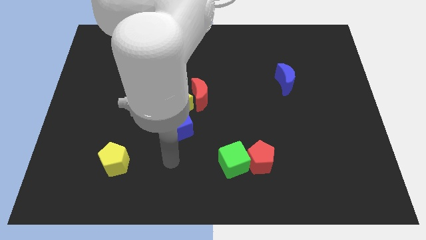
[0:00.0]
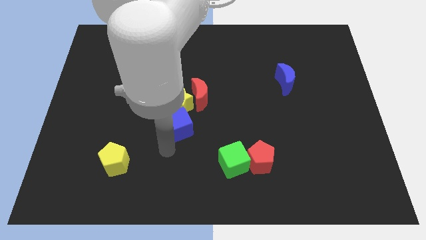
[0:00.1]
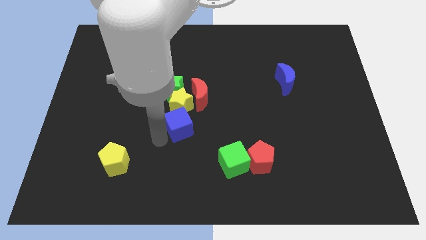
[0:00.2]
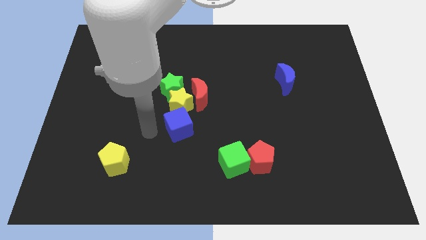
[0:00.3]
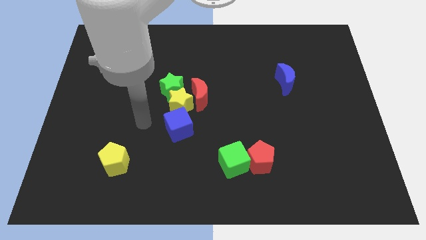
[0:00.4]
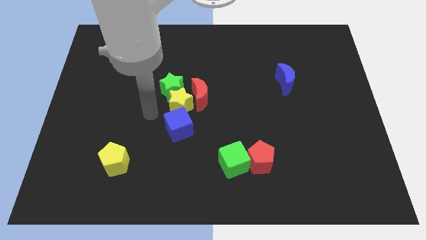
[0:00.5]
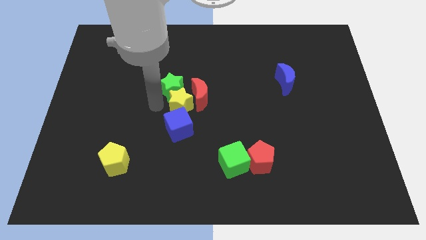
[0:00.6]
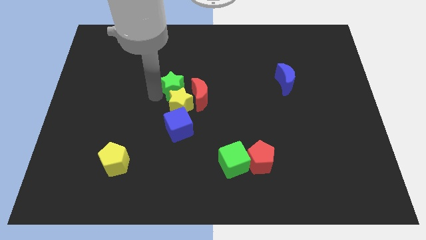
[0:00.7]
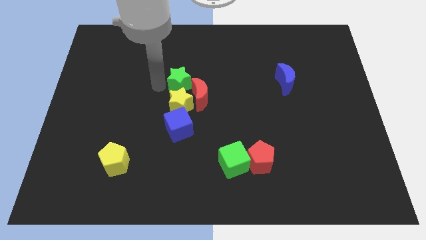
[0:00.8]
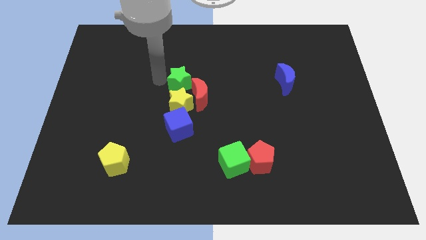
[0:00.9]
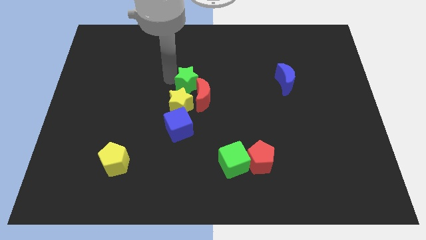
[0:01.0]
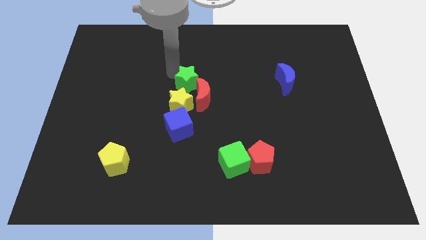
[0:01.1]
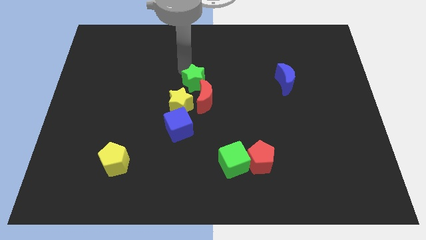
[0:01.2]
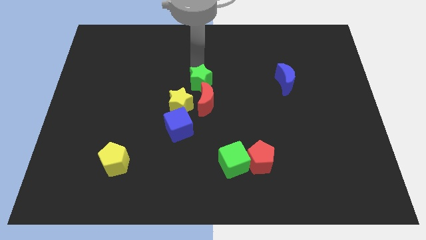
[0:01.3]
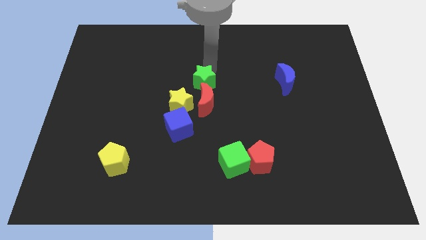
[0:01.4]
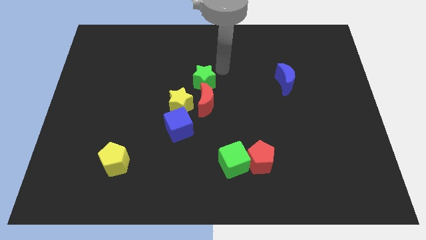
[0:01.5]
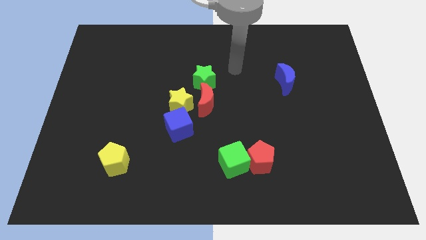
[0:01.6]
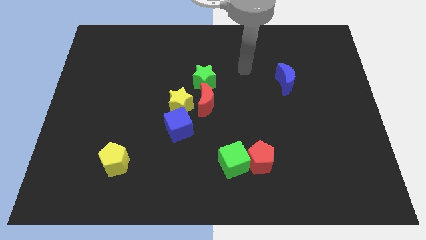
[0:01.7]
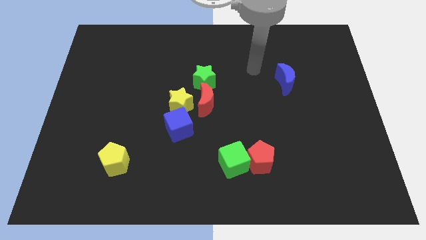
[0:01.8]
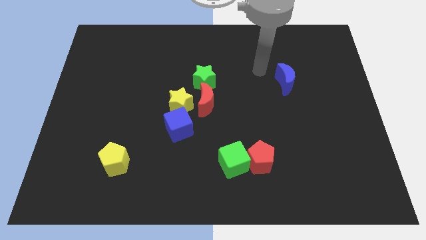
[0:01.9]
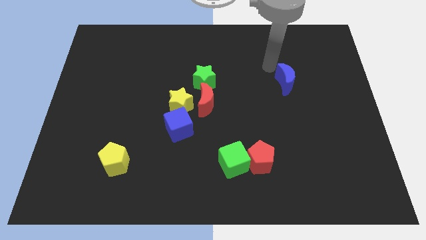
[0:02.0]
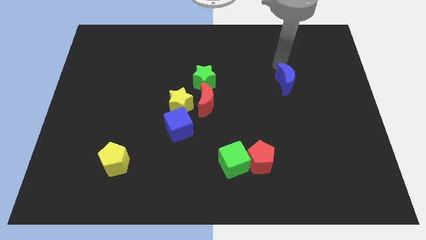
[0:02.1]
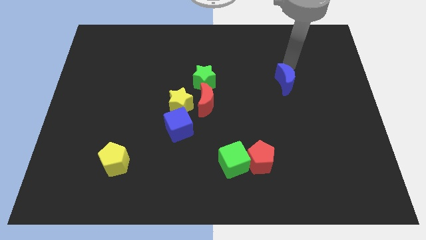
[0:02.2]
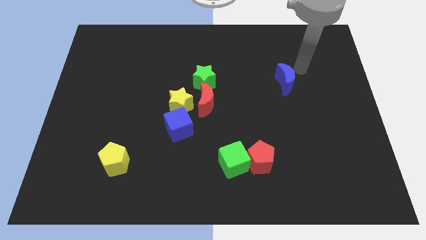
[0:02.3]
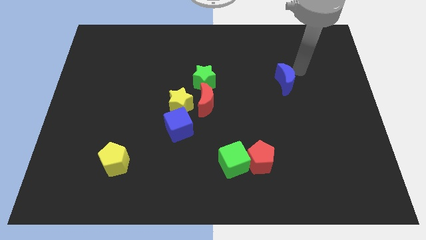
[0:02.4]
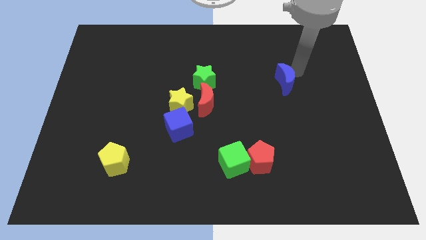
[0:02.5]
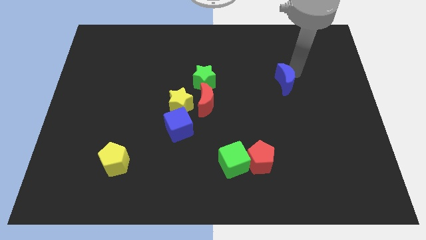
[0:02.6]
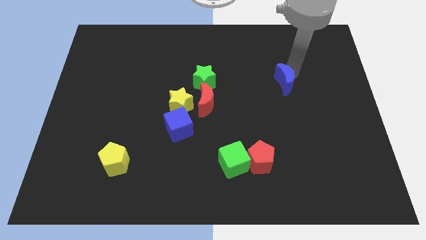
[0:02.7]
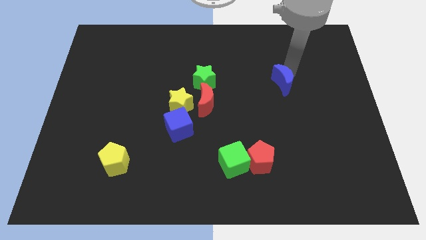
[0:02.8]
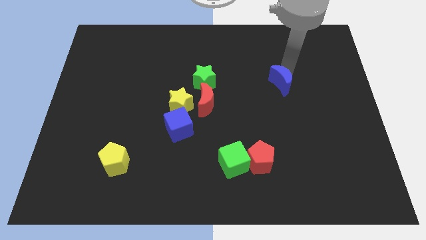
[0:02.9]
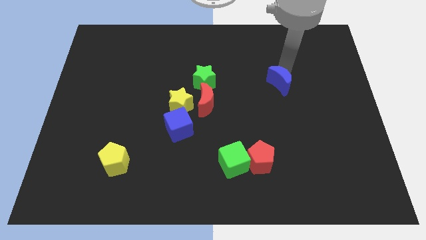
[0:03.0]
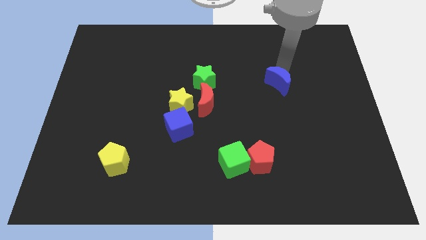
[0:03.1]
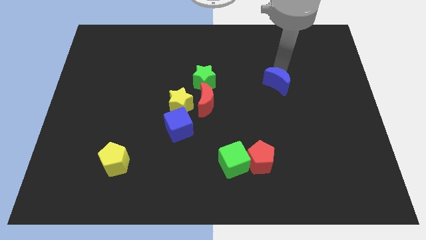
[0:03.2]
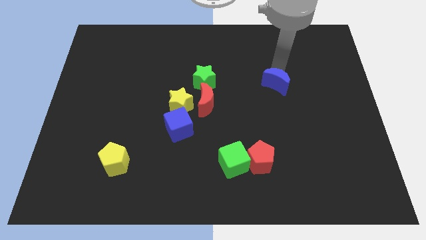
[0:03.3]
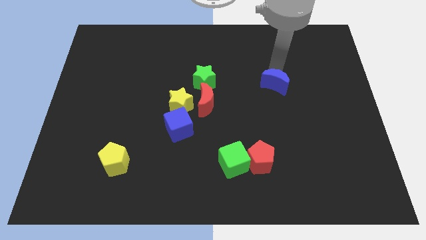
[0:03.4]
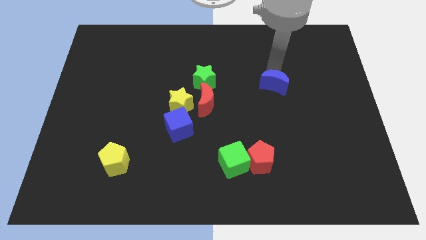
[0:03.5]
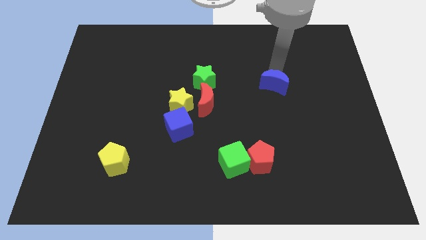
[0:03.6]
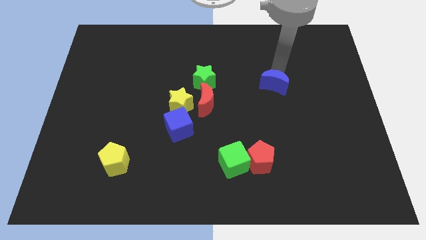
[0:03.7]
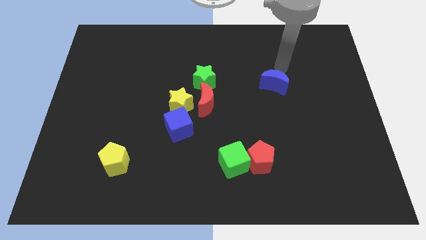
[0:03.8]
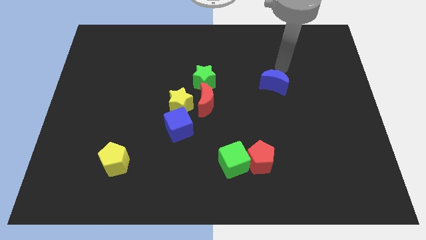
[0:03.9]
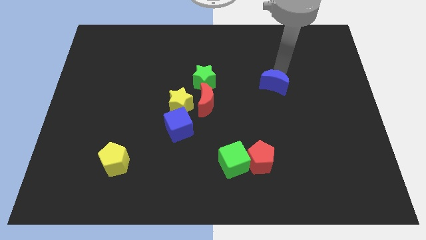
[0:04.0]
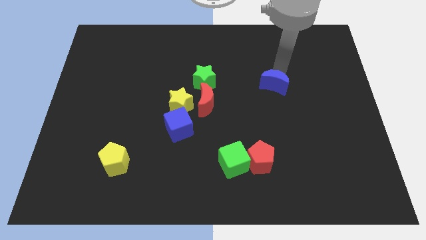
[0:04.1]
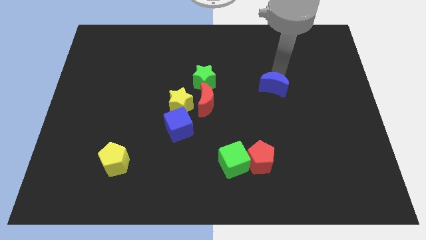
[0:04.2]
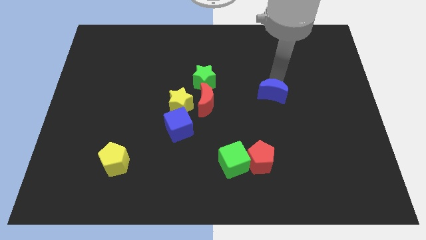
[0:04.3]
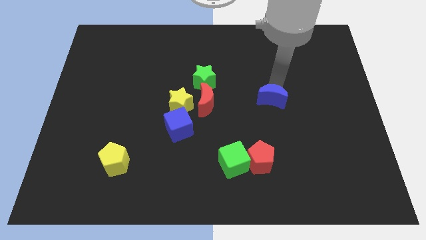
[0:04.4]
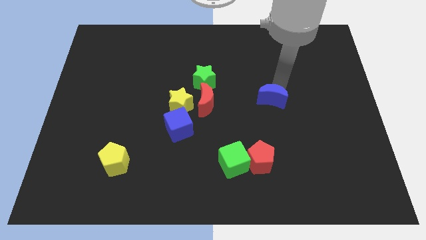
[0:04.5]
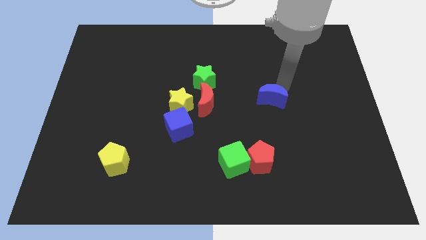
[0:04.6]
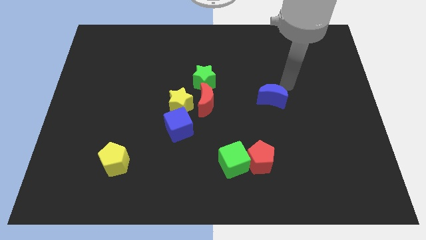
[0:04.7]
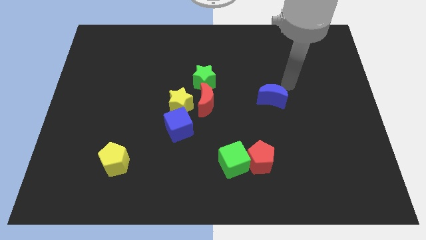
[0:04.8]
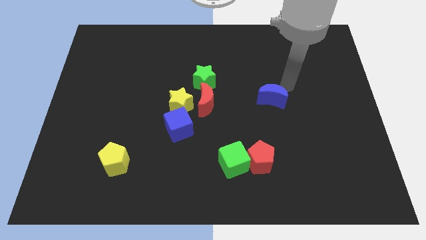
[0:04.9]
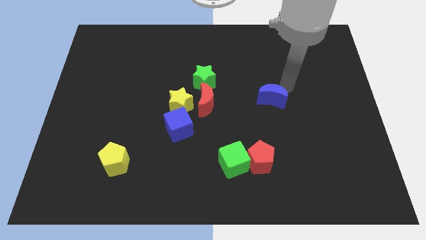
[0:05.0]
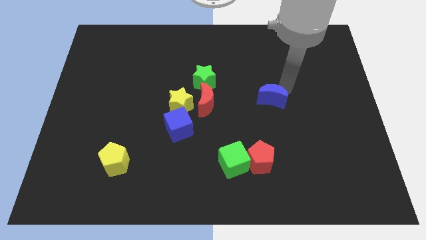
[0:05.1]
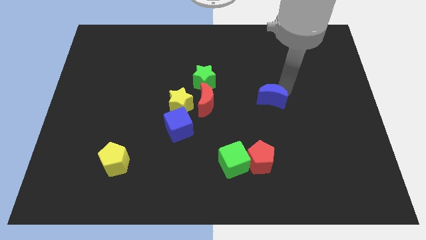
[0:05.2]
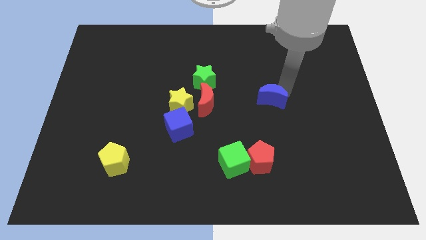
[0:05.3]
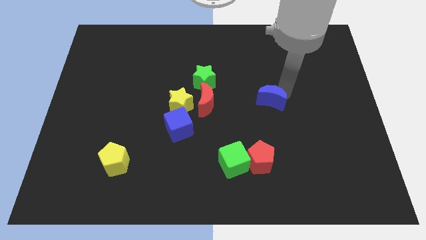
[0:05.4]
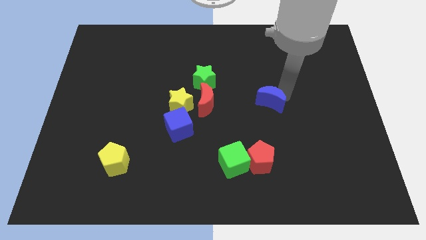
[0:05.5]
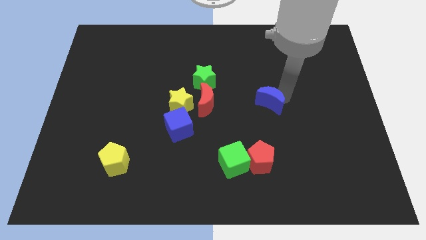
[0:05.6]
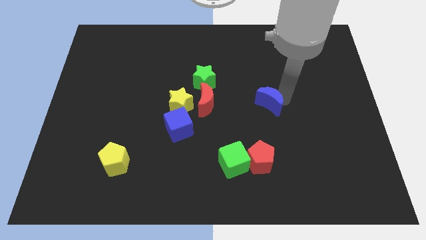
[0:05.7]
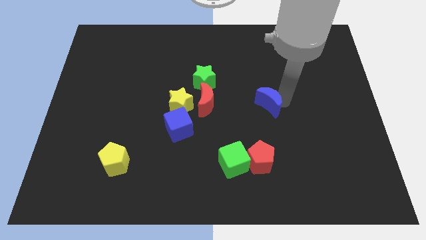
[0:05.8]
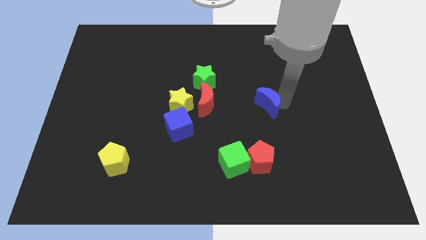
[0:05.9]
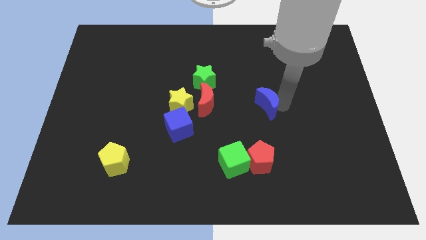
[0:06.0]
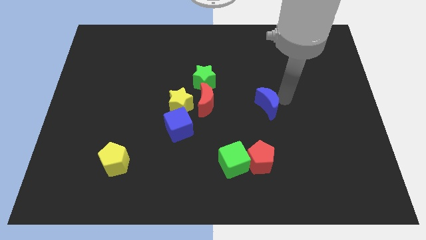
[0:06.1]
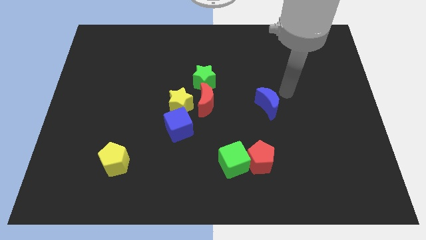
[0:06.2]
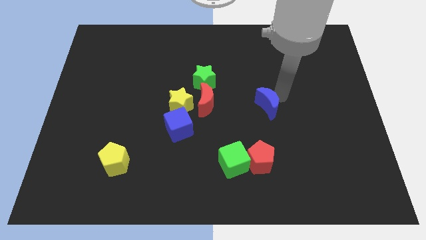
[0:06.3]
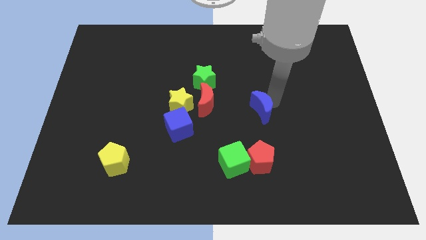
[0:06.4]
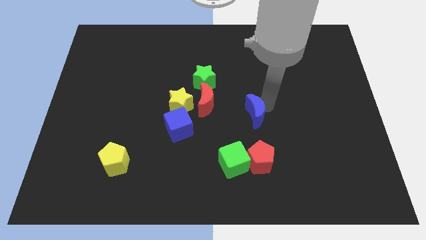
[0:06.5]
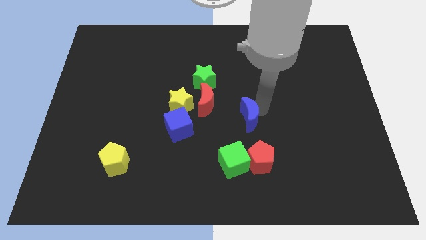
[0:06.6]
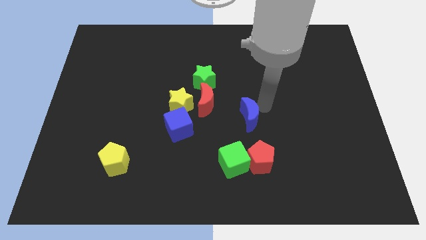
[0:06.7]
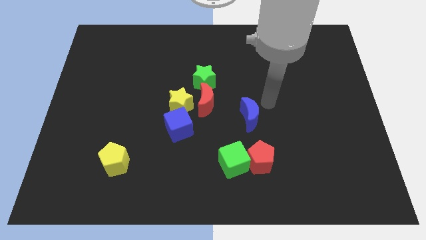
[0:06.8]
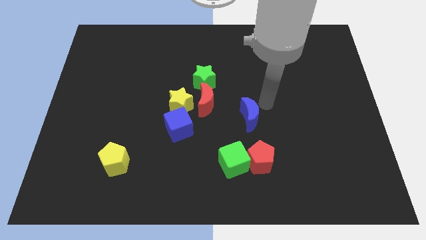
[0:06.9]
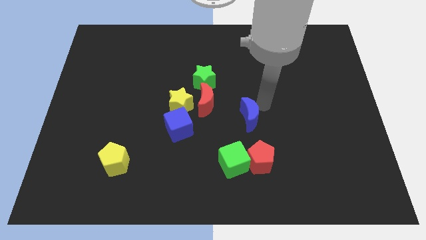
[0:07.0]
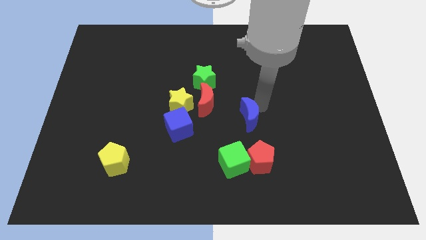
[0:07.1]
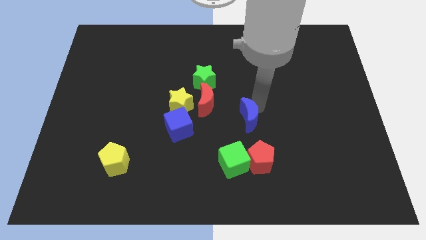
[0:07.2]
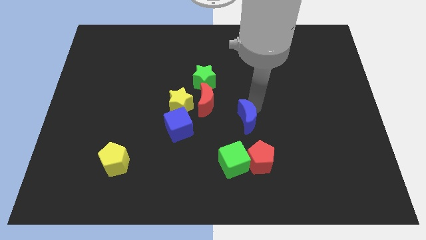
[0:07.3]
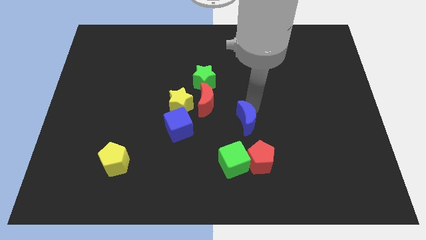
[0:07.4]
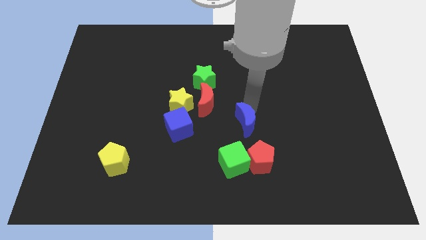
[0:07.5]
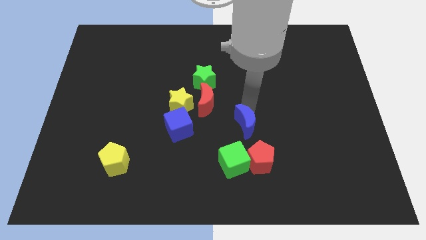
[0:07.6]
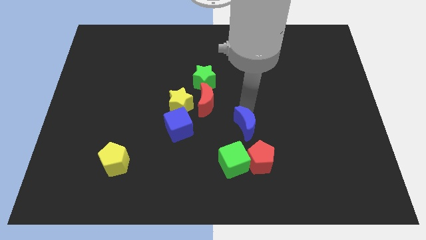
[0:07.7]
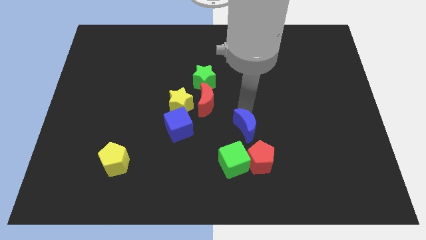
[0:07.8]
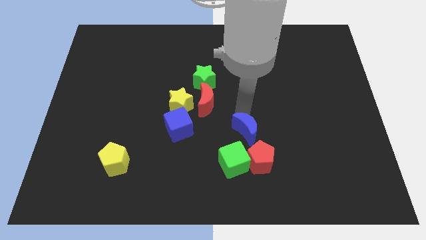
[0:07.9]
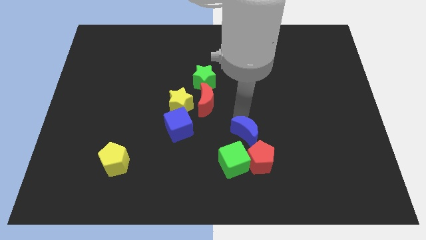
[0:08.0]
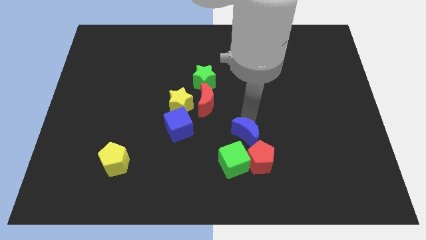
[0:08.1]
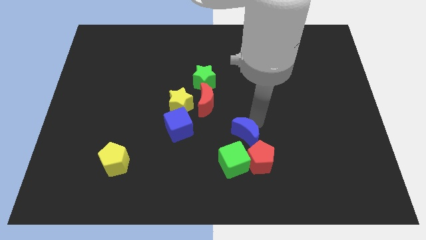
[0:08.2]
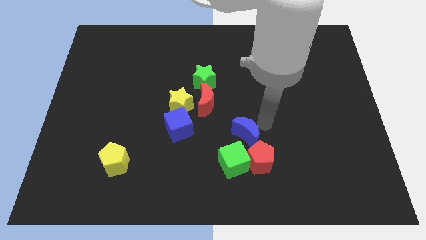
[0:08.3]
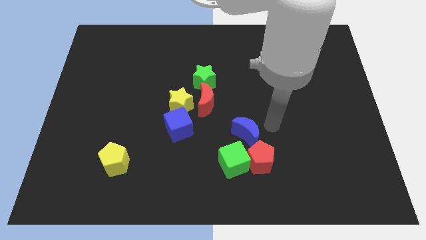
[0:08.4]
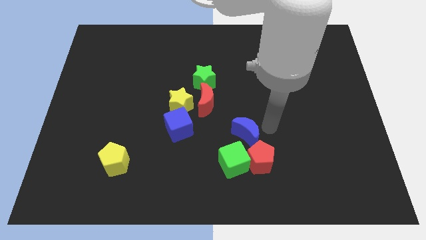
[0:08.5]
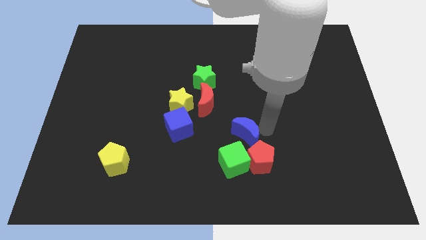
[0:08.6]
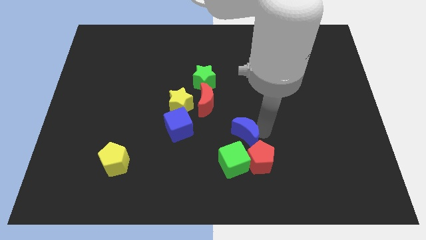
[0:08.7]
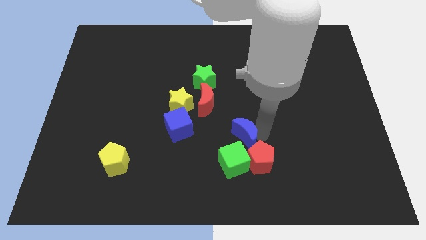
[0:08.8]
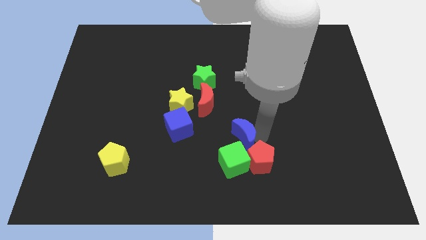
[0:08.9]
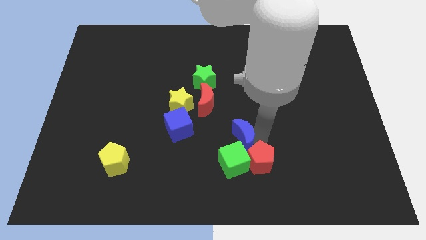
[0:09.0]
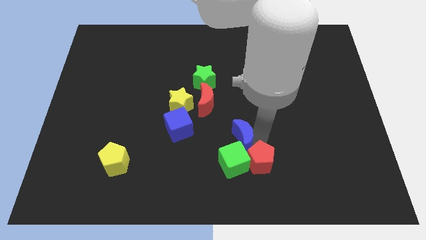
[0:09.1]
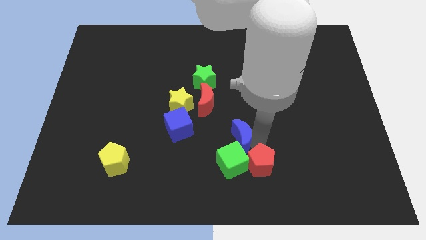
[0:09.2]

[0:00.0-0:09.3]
slide the blue moon down and left diagonally
